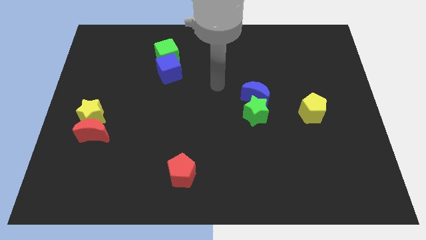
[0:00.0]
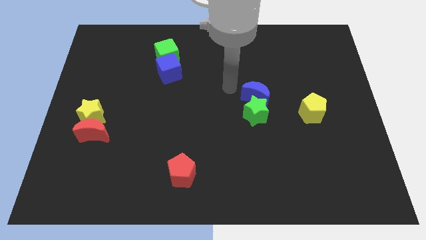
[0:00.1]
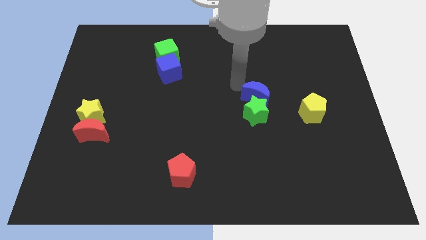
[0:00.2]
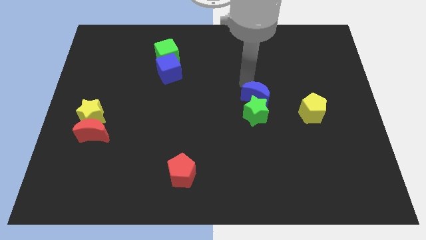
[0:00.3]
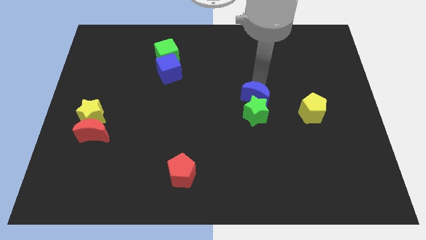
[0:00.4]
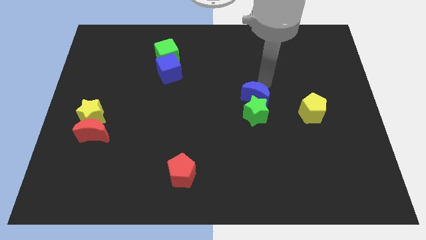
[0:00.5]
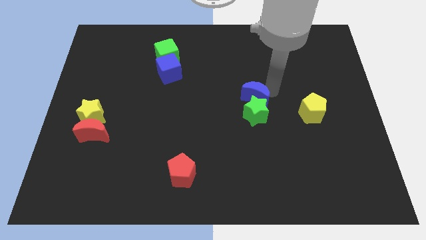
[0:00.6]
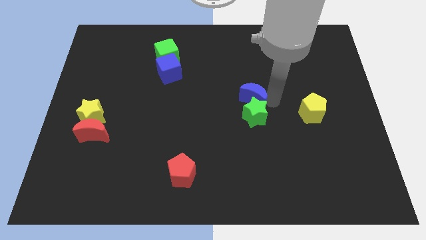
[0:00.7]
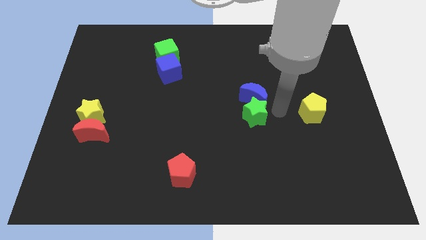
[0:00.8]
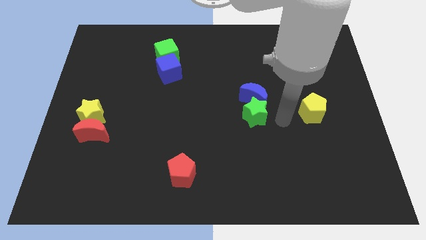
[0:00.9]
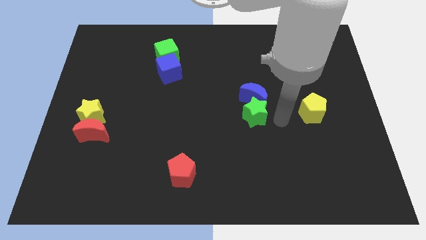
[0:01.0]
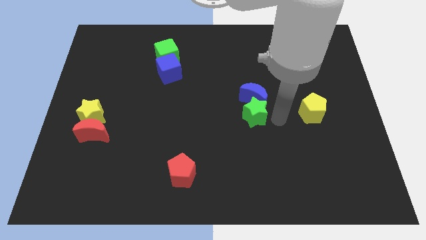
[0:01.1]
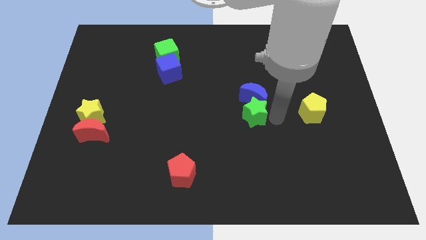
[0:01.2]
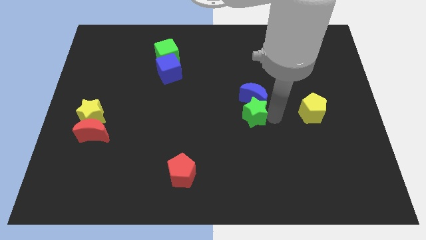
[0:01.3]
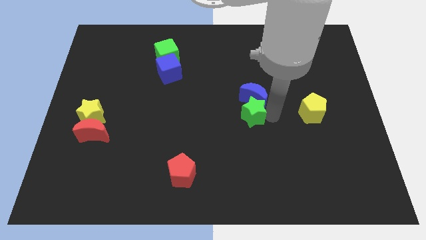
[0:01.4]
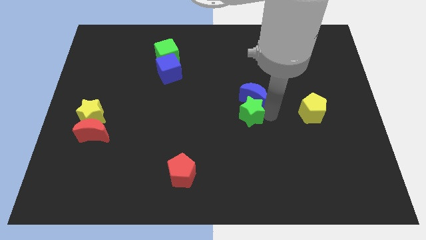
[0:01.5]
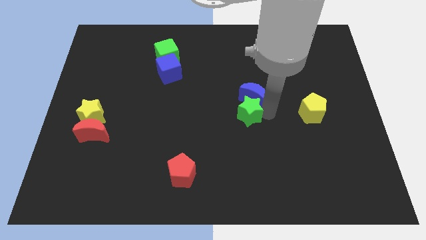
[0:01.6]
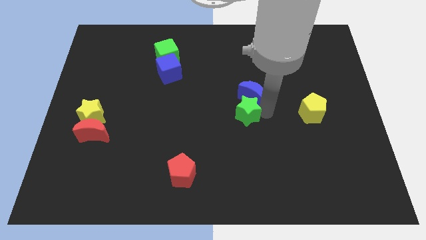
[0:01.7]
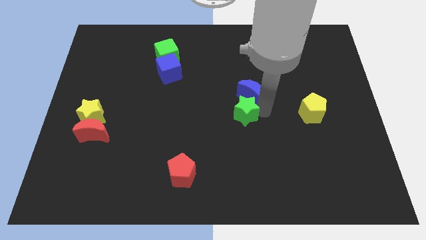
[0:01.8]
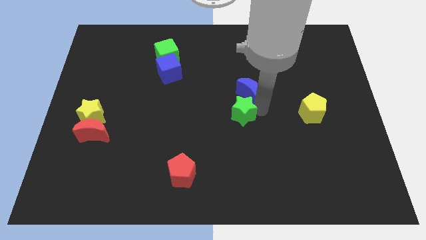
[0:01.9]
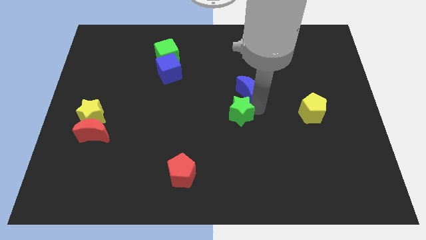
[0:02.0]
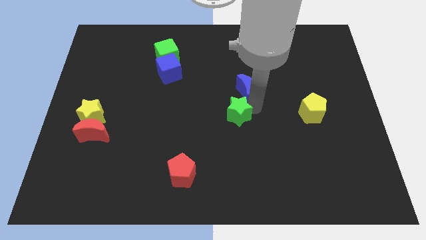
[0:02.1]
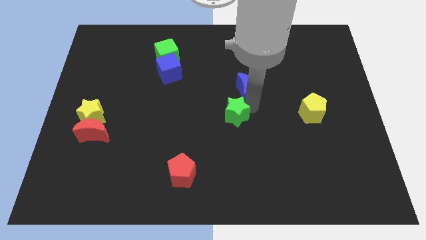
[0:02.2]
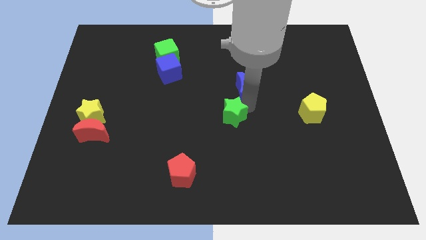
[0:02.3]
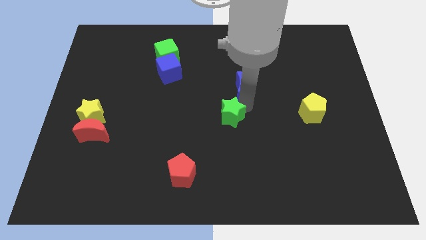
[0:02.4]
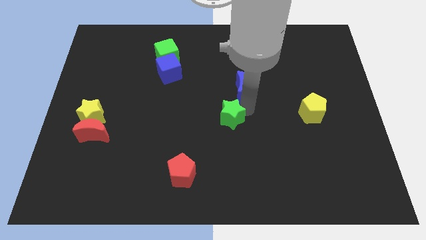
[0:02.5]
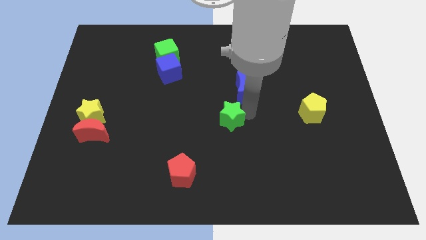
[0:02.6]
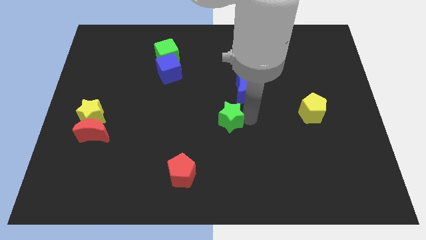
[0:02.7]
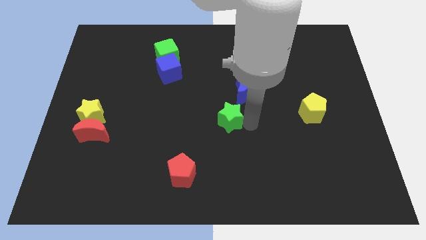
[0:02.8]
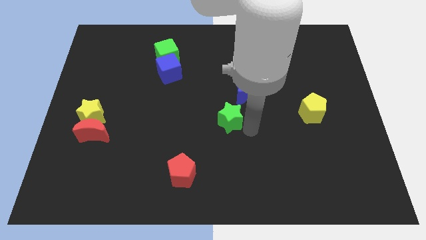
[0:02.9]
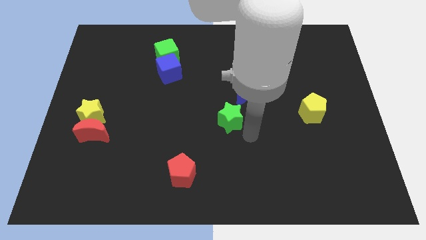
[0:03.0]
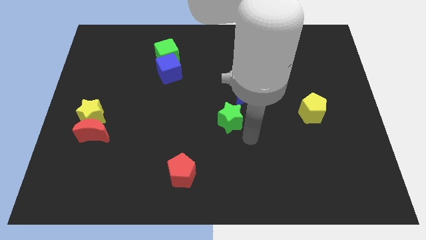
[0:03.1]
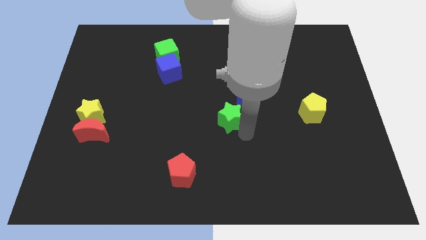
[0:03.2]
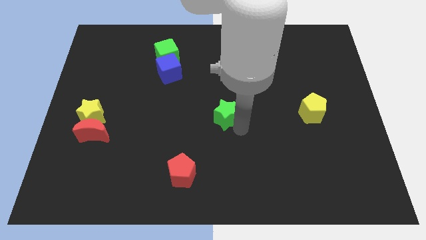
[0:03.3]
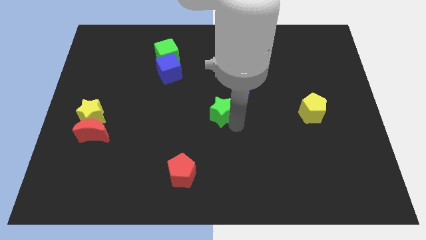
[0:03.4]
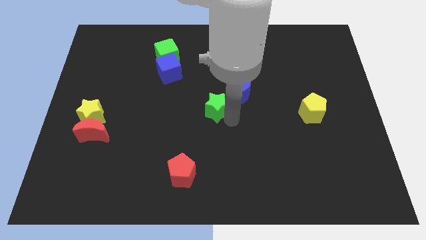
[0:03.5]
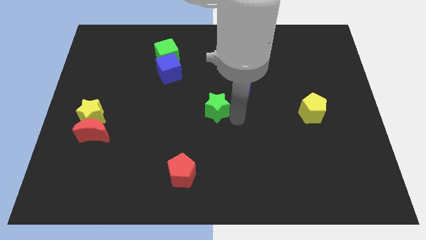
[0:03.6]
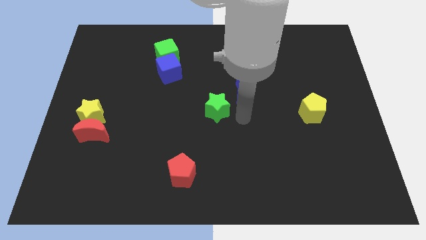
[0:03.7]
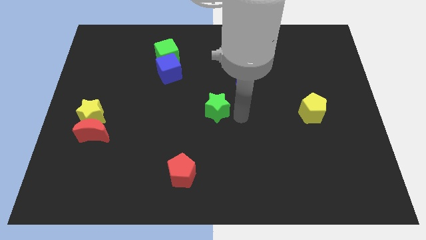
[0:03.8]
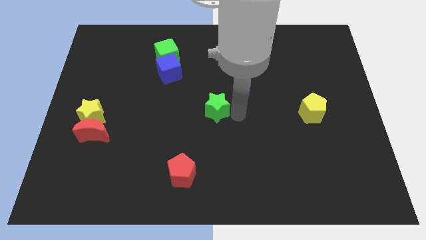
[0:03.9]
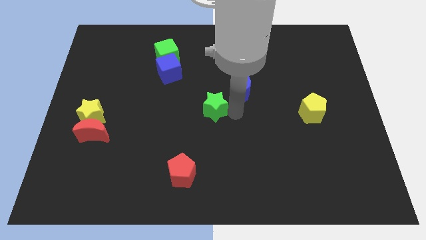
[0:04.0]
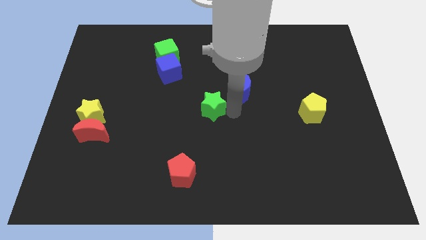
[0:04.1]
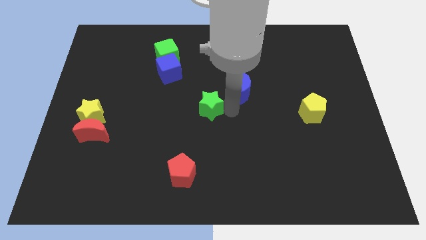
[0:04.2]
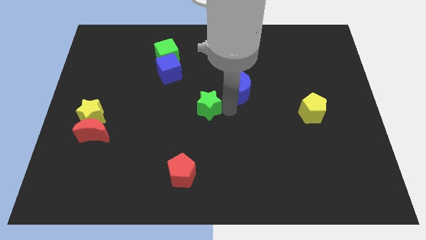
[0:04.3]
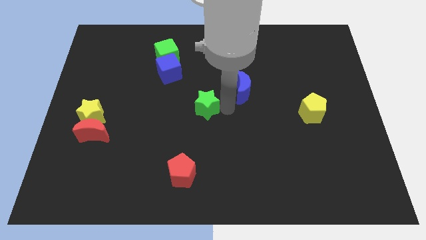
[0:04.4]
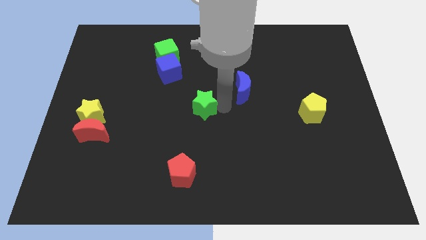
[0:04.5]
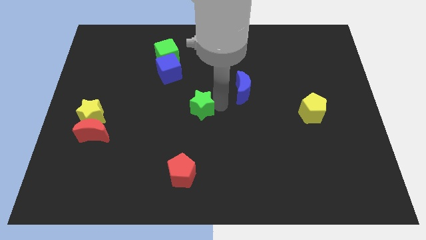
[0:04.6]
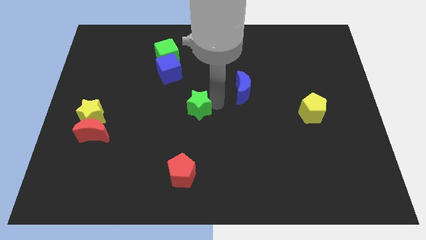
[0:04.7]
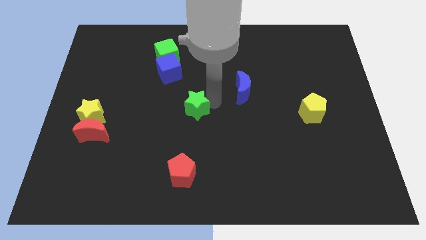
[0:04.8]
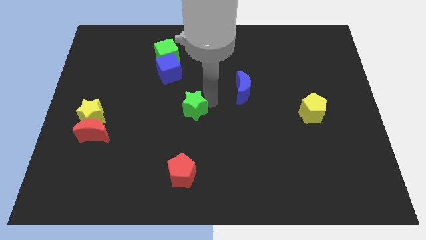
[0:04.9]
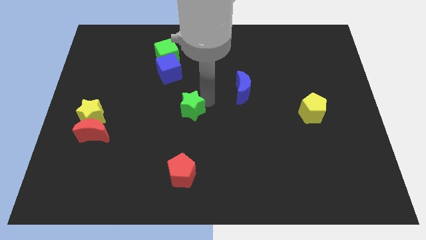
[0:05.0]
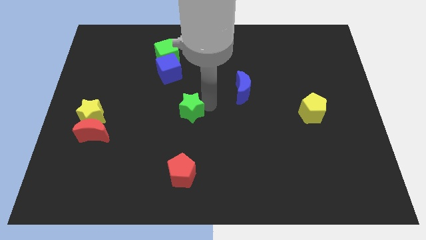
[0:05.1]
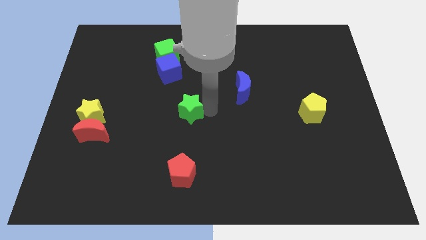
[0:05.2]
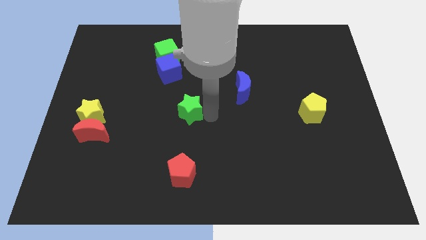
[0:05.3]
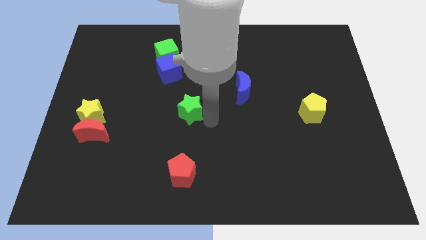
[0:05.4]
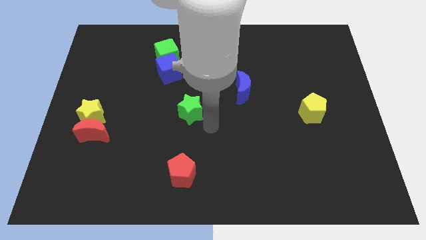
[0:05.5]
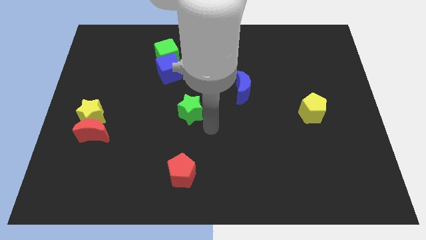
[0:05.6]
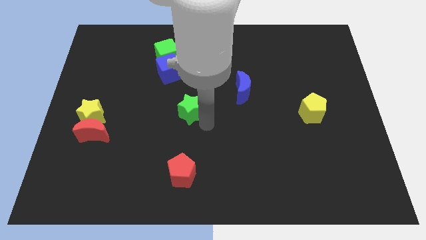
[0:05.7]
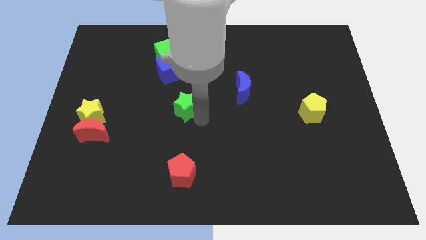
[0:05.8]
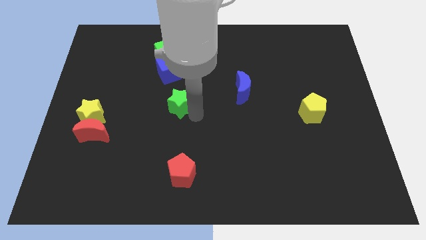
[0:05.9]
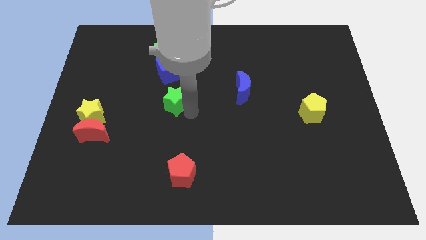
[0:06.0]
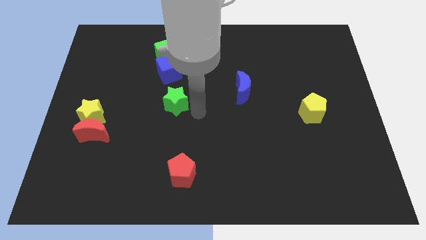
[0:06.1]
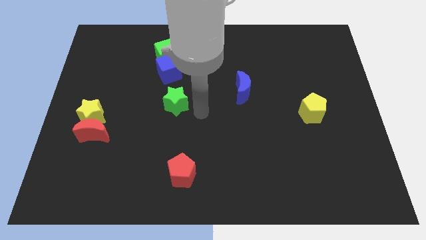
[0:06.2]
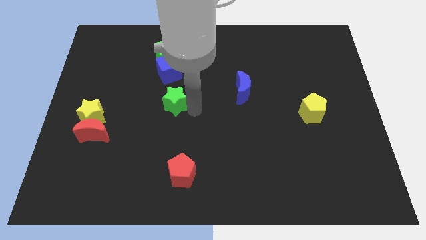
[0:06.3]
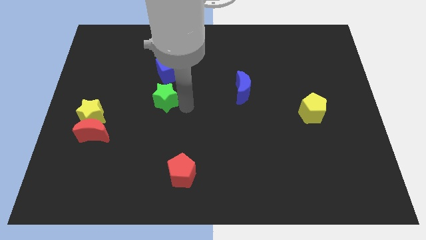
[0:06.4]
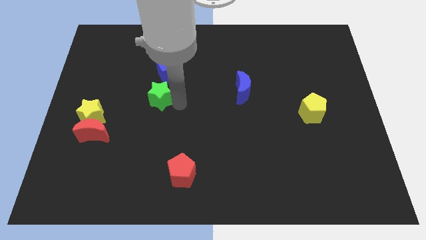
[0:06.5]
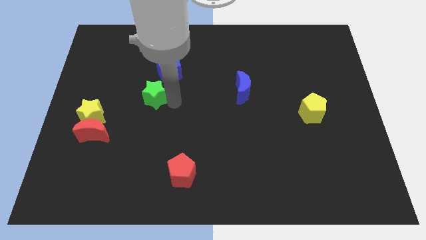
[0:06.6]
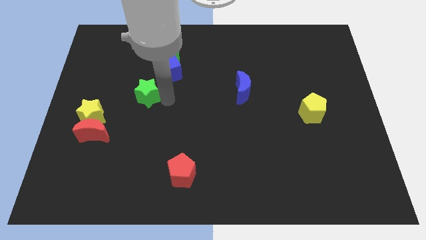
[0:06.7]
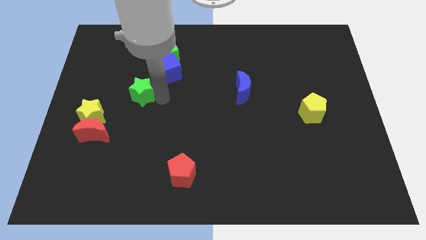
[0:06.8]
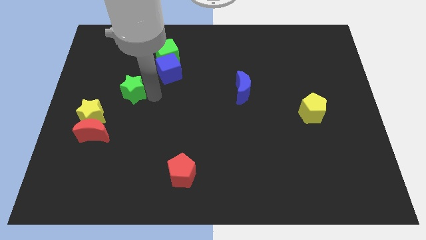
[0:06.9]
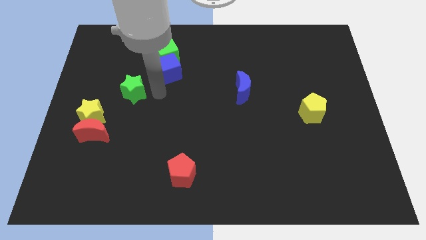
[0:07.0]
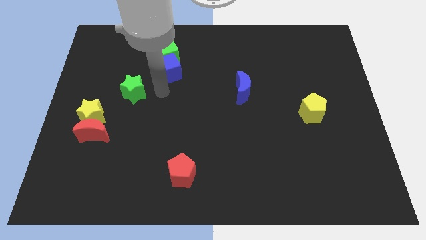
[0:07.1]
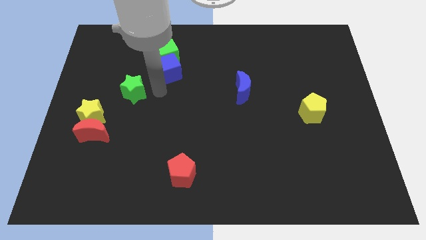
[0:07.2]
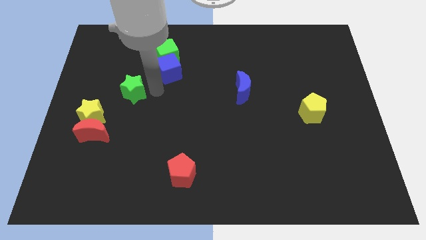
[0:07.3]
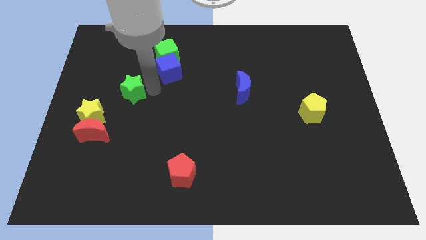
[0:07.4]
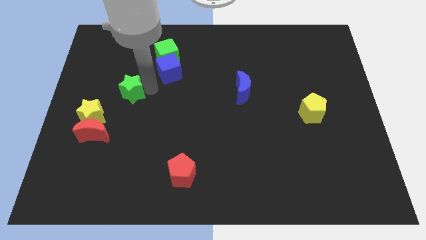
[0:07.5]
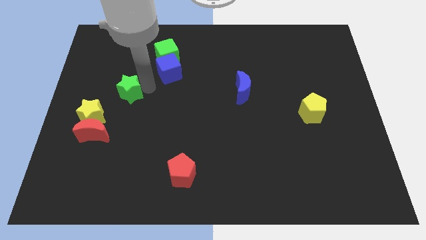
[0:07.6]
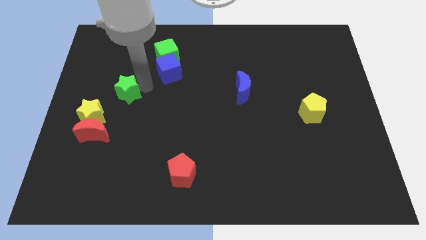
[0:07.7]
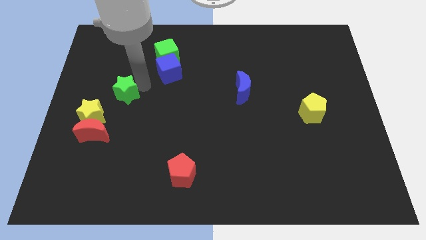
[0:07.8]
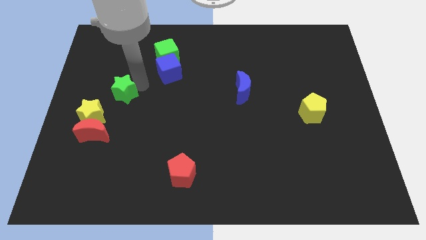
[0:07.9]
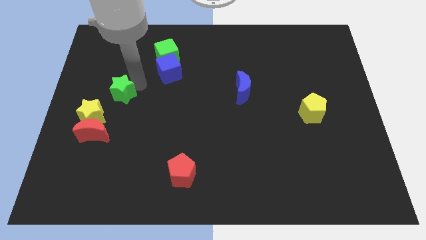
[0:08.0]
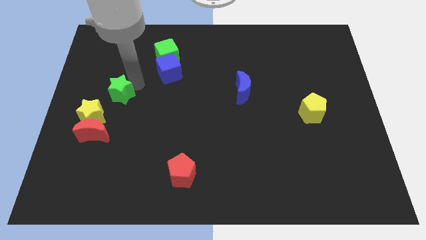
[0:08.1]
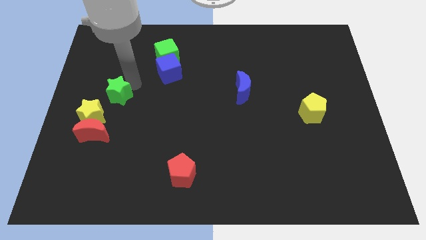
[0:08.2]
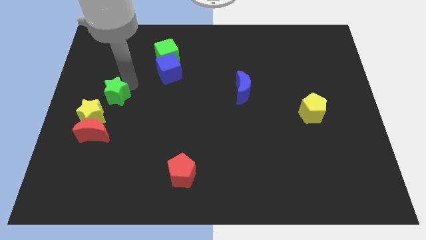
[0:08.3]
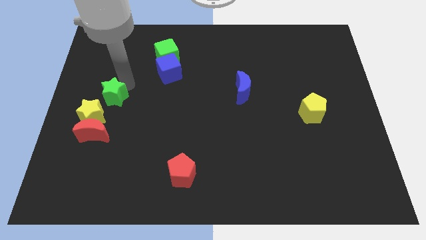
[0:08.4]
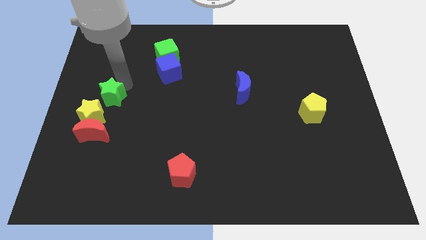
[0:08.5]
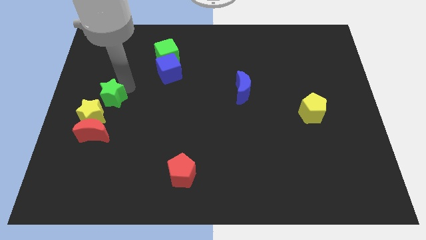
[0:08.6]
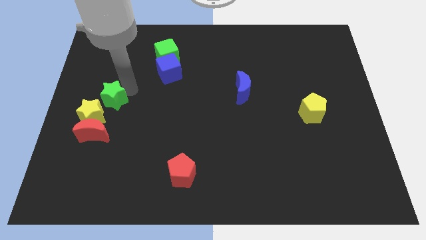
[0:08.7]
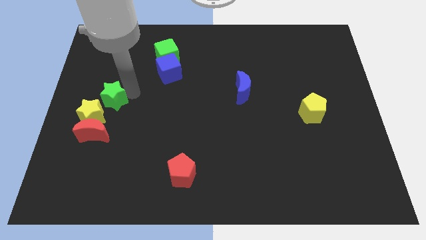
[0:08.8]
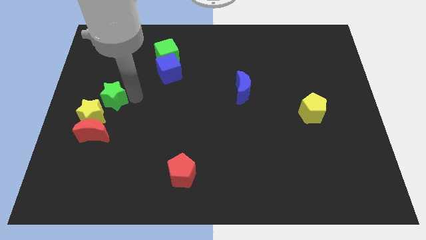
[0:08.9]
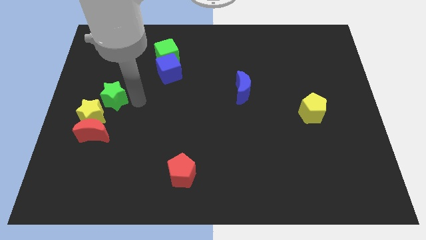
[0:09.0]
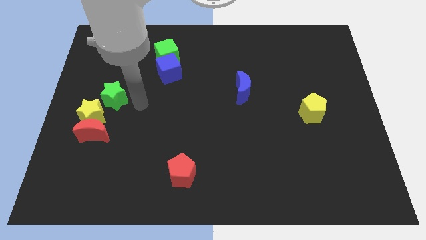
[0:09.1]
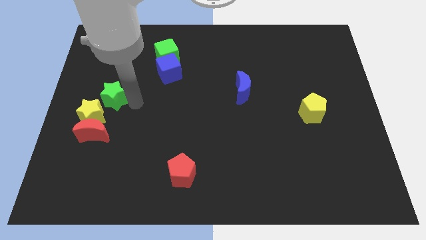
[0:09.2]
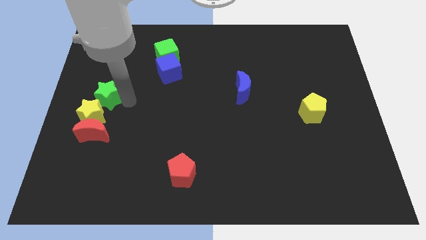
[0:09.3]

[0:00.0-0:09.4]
push the green star to the left side of the board
